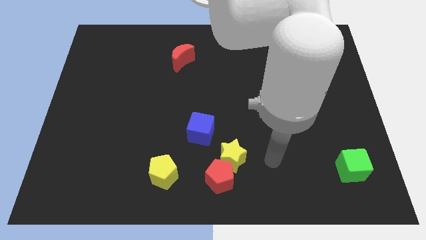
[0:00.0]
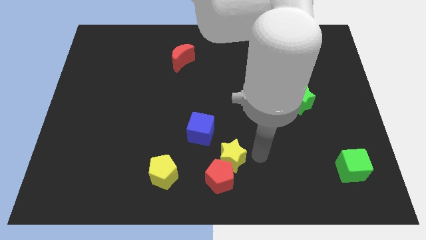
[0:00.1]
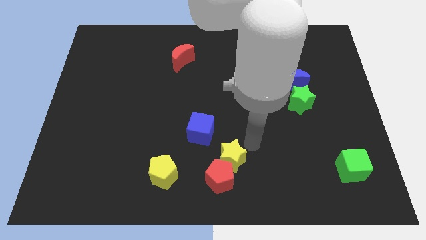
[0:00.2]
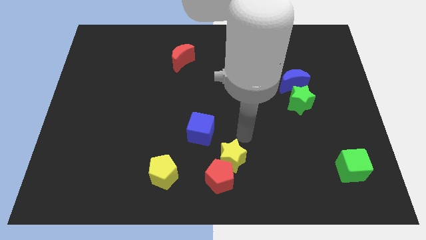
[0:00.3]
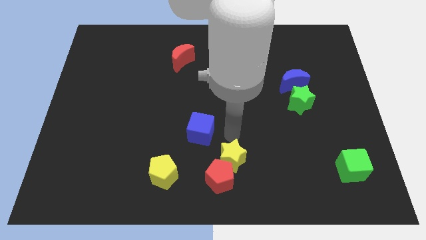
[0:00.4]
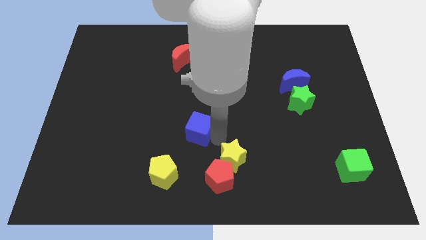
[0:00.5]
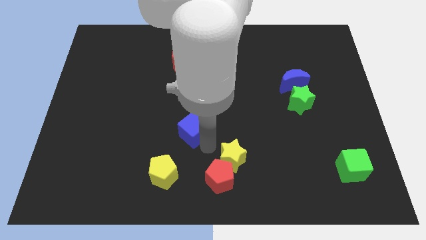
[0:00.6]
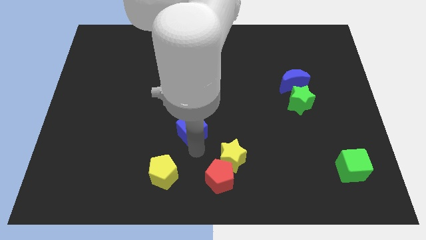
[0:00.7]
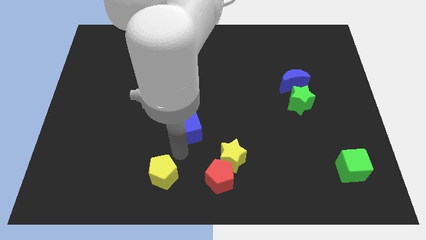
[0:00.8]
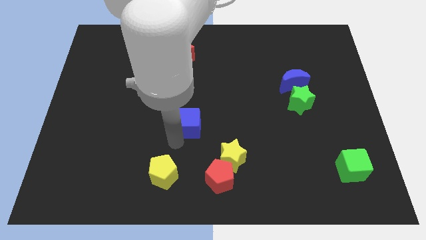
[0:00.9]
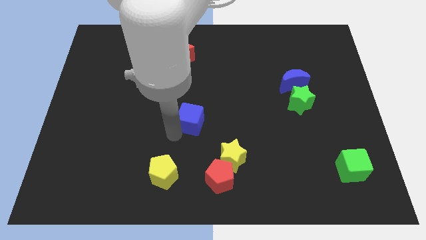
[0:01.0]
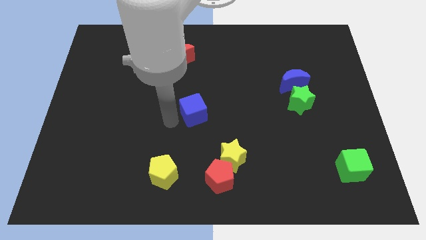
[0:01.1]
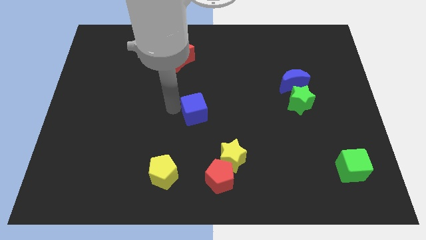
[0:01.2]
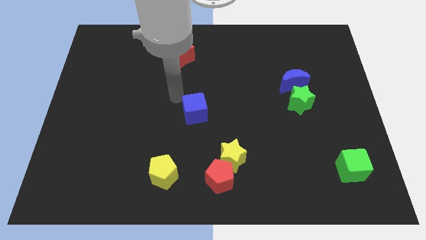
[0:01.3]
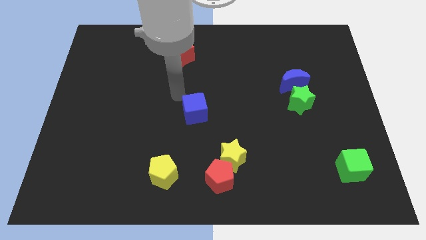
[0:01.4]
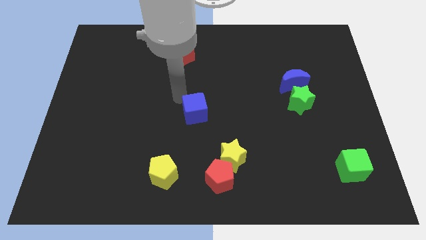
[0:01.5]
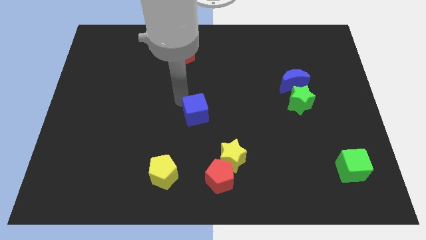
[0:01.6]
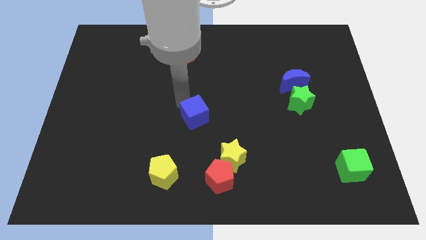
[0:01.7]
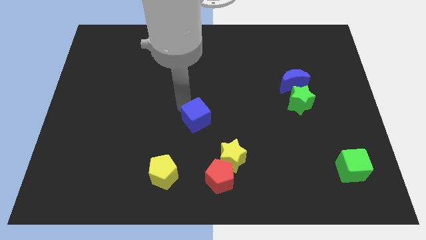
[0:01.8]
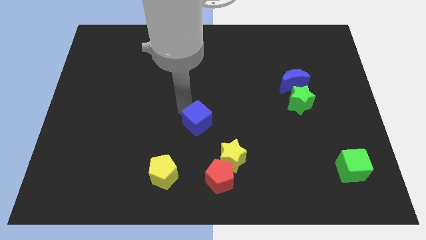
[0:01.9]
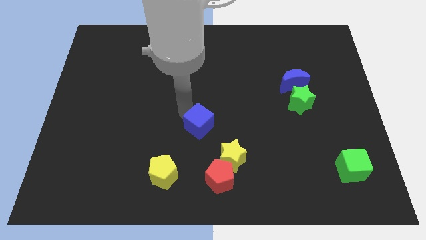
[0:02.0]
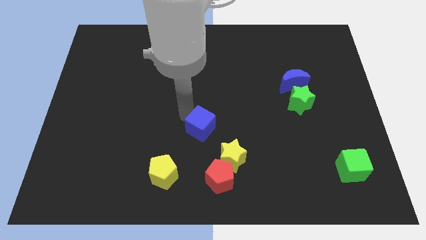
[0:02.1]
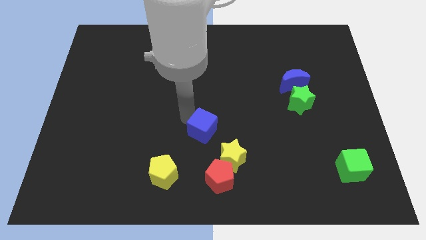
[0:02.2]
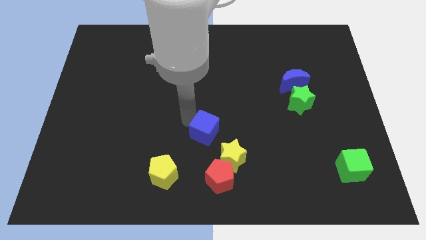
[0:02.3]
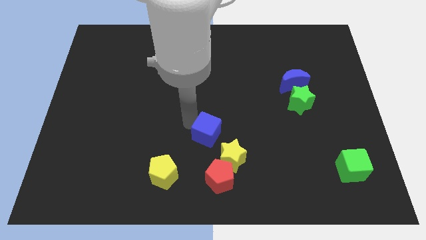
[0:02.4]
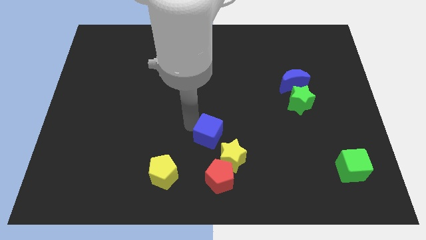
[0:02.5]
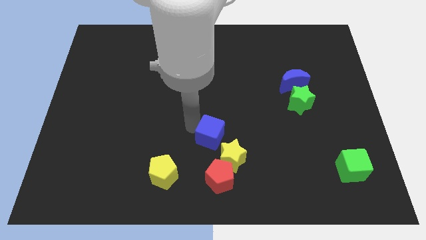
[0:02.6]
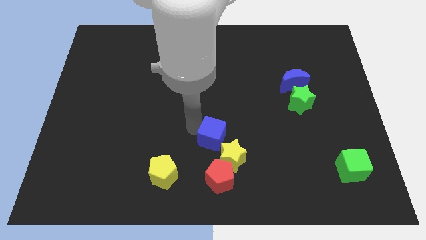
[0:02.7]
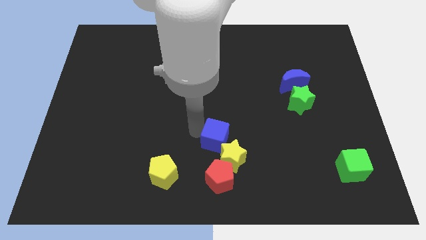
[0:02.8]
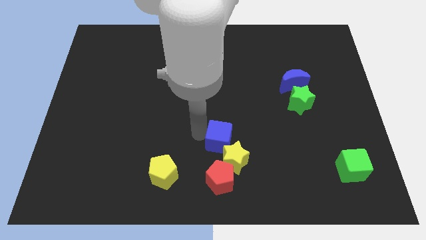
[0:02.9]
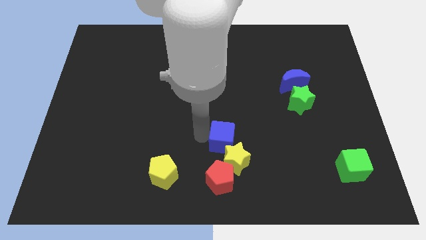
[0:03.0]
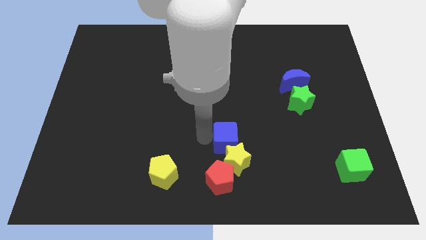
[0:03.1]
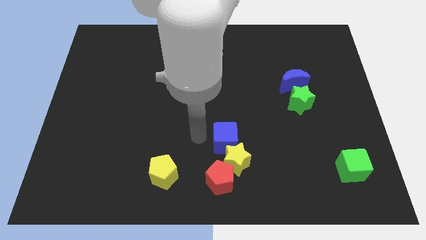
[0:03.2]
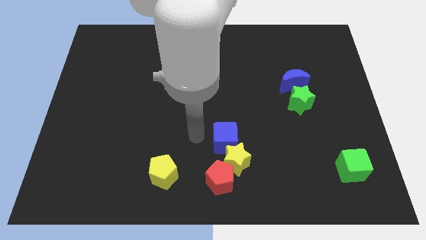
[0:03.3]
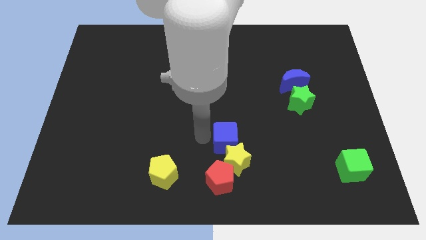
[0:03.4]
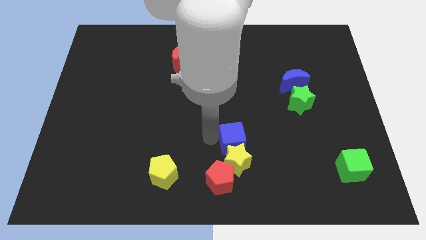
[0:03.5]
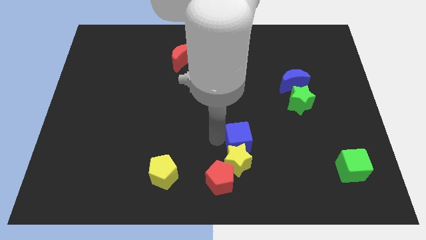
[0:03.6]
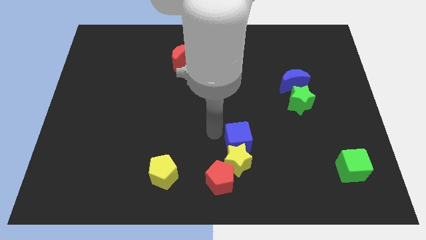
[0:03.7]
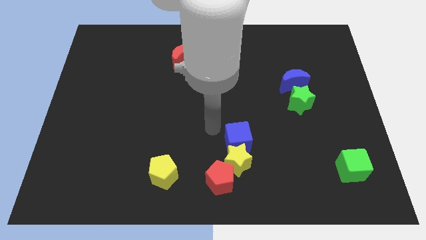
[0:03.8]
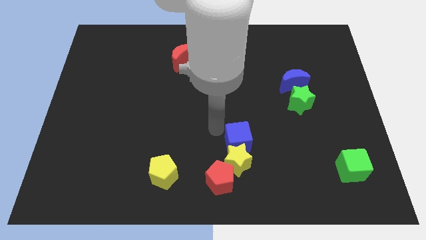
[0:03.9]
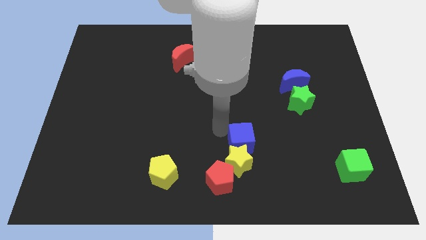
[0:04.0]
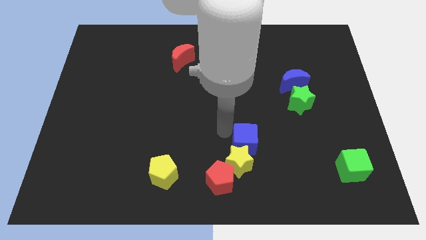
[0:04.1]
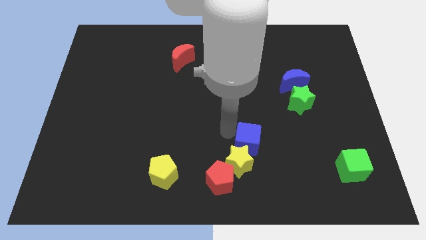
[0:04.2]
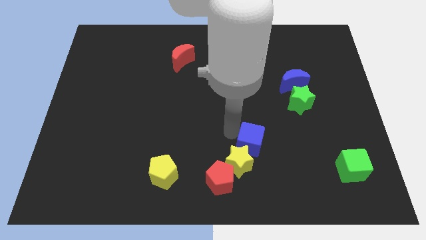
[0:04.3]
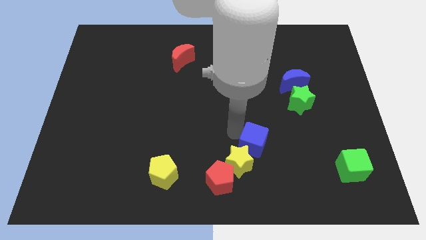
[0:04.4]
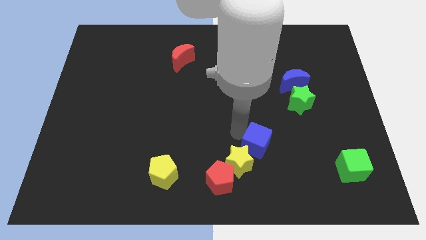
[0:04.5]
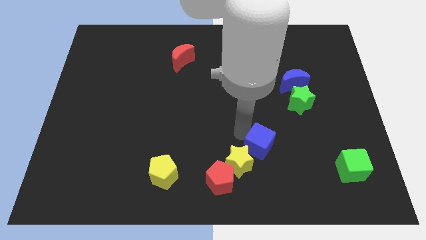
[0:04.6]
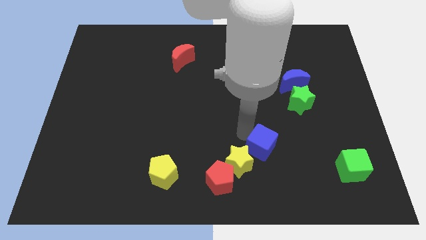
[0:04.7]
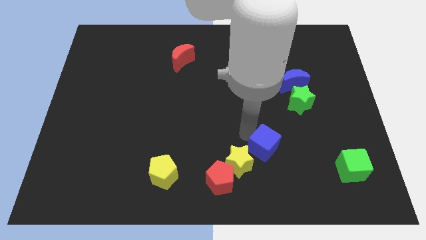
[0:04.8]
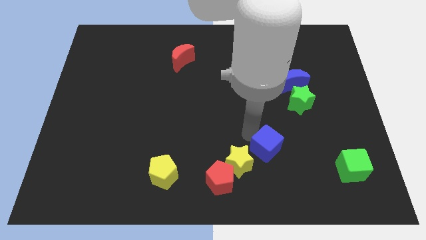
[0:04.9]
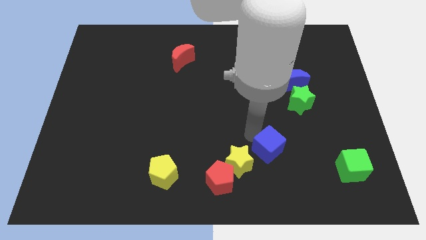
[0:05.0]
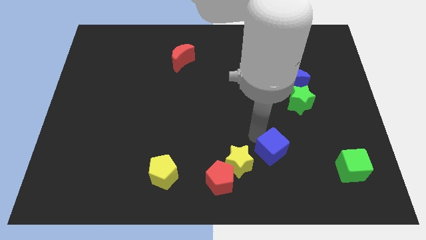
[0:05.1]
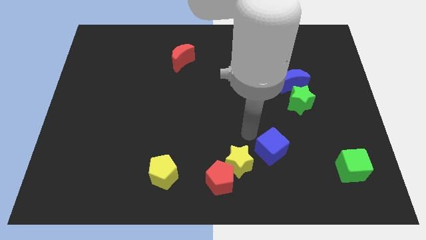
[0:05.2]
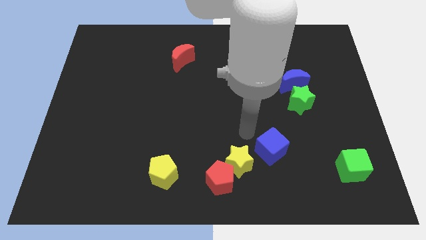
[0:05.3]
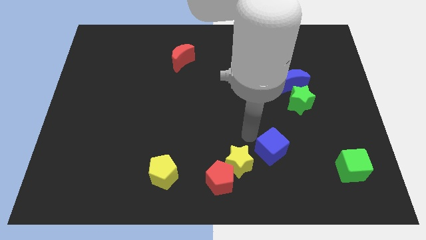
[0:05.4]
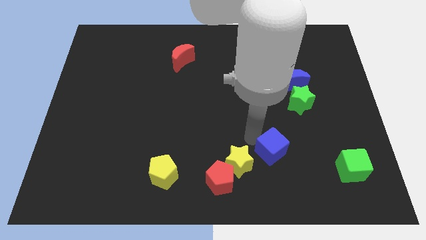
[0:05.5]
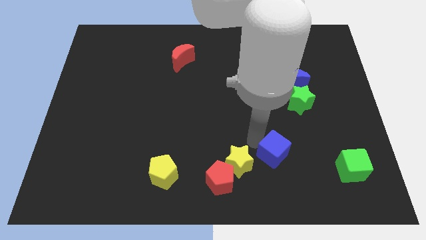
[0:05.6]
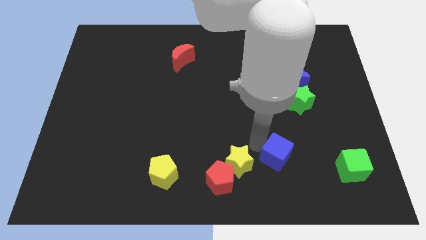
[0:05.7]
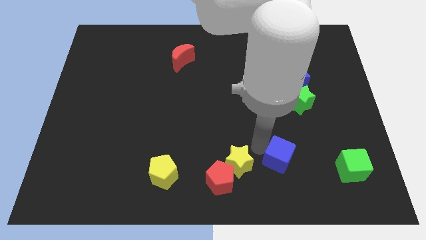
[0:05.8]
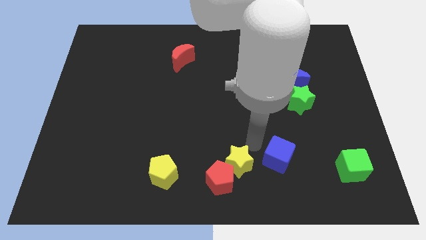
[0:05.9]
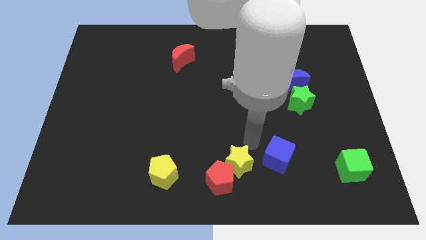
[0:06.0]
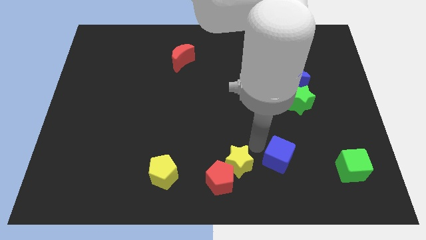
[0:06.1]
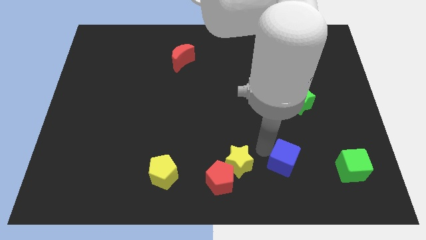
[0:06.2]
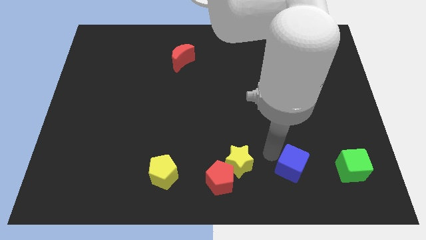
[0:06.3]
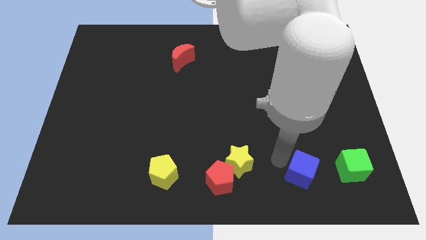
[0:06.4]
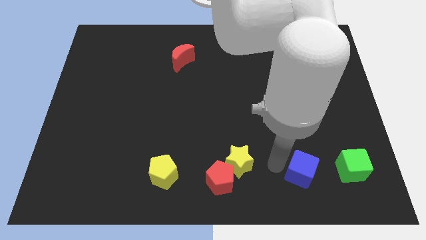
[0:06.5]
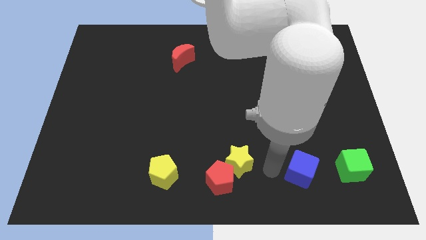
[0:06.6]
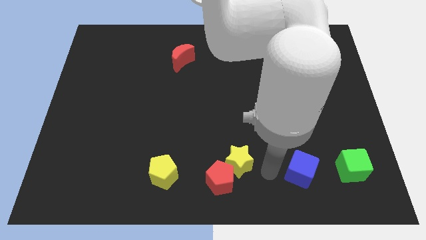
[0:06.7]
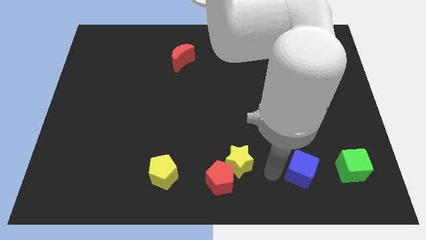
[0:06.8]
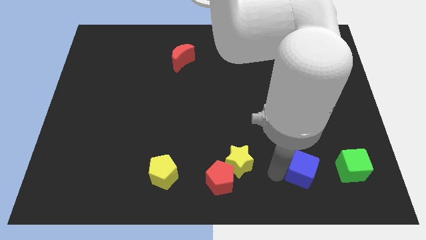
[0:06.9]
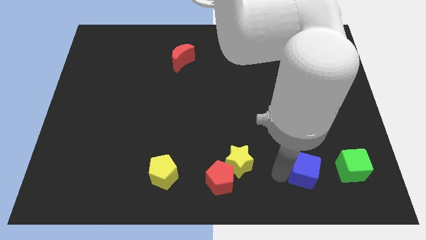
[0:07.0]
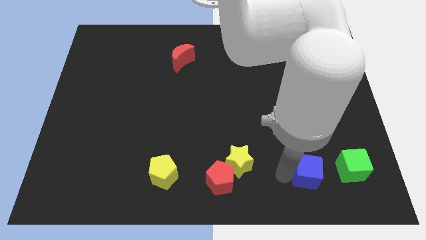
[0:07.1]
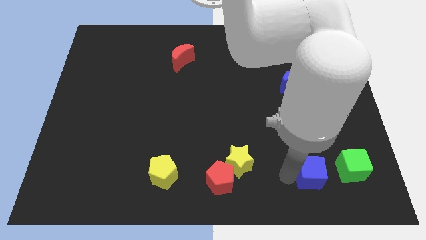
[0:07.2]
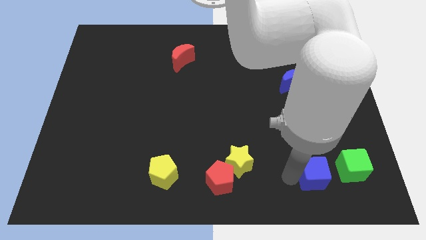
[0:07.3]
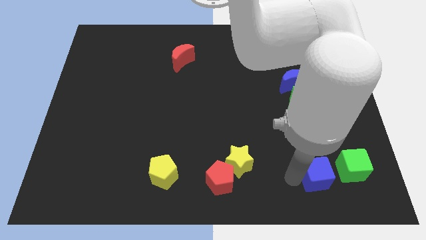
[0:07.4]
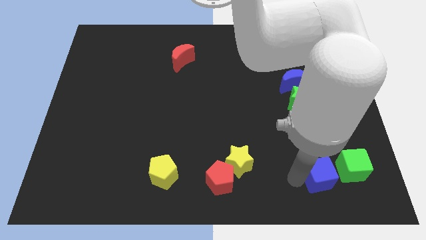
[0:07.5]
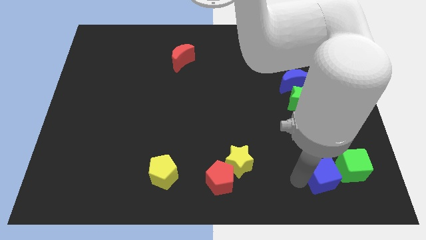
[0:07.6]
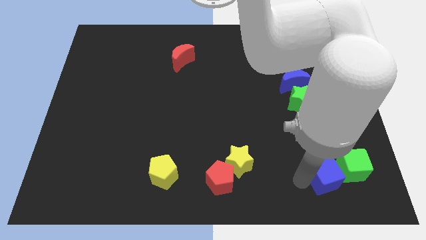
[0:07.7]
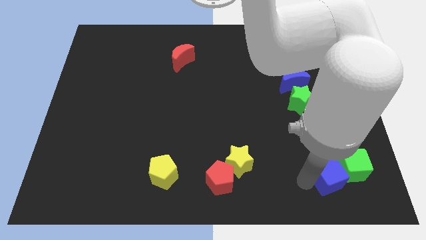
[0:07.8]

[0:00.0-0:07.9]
push the blue cube next to the green cube
